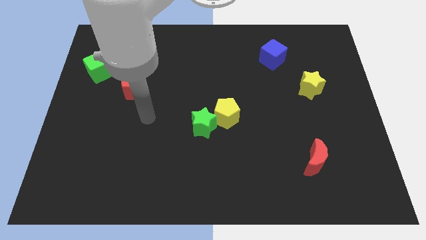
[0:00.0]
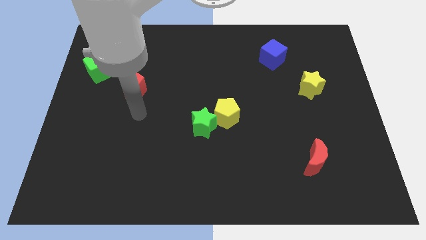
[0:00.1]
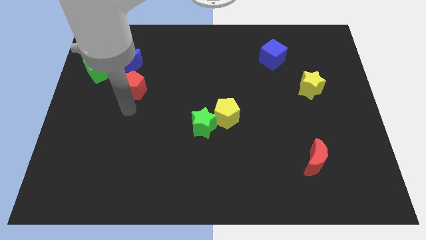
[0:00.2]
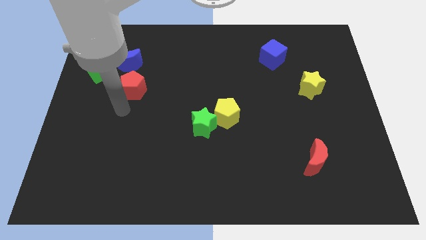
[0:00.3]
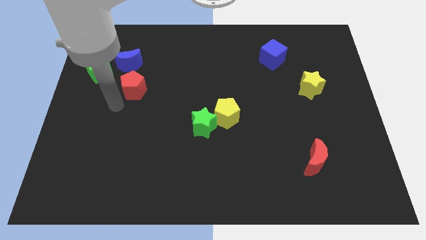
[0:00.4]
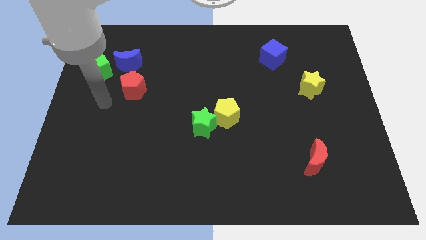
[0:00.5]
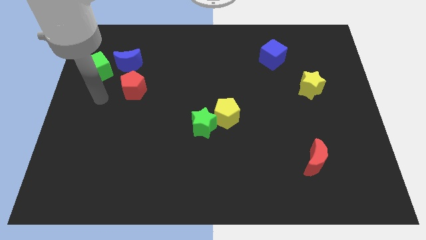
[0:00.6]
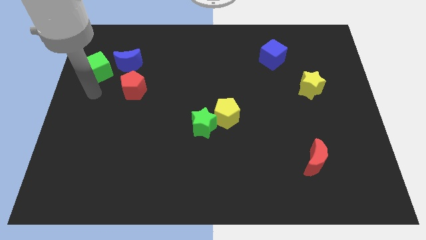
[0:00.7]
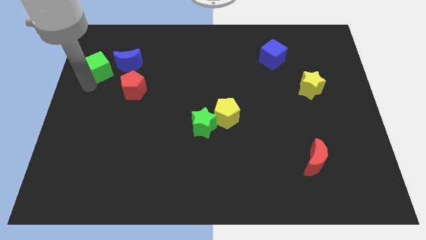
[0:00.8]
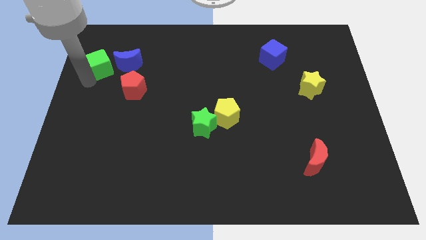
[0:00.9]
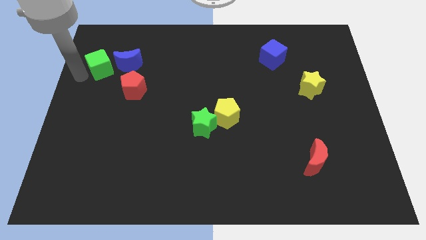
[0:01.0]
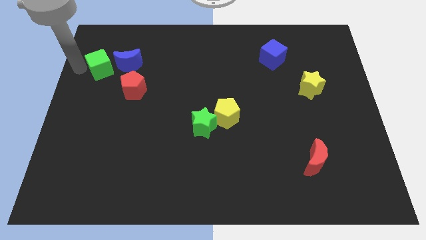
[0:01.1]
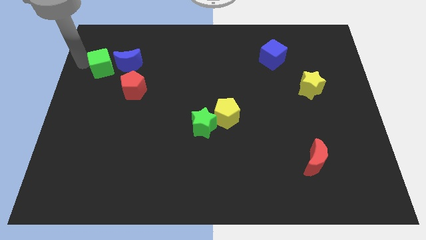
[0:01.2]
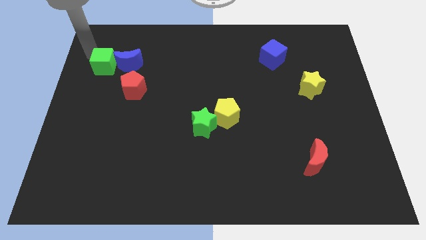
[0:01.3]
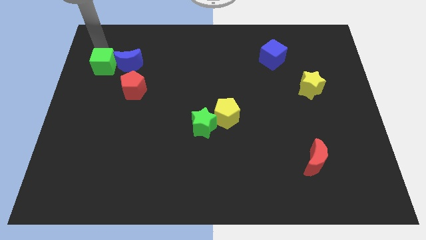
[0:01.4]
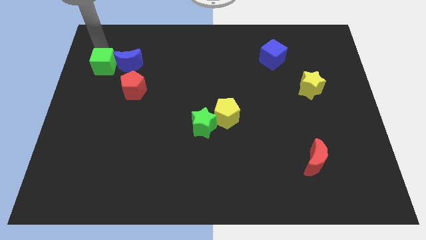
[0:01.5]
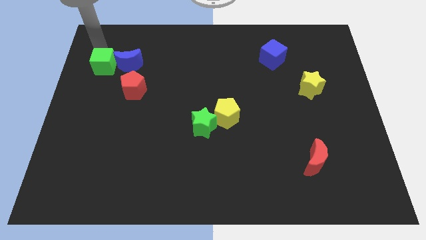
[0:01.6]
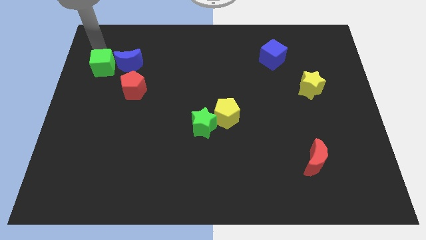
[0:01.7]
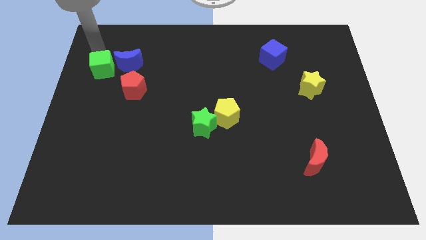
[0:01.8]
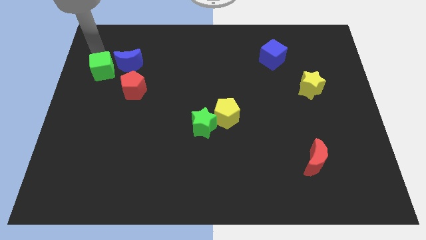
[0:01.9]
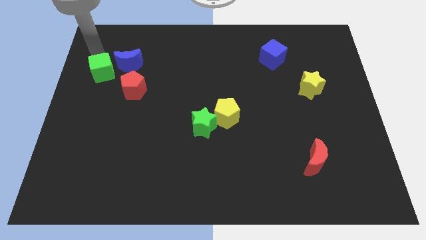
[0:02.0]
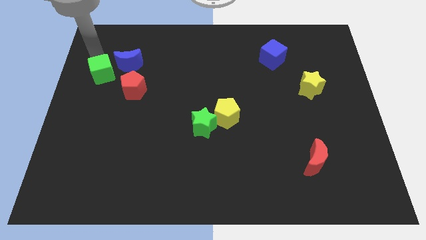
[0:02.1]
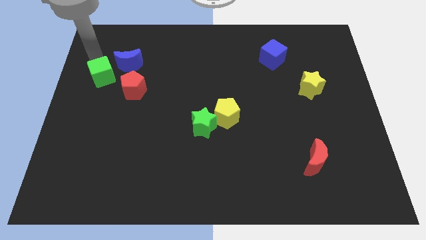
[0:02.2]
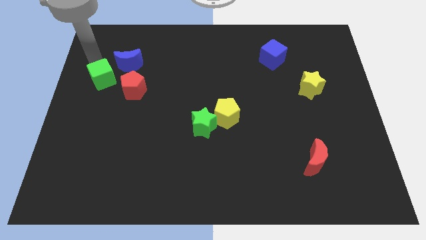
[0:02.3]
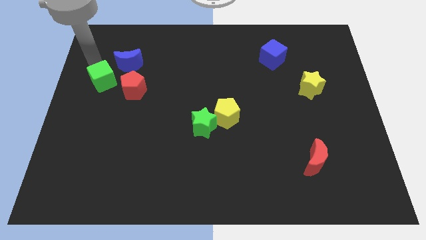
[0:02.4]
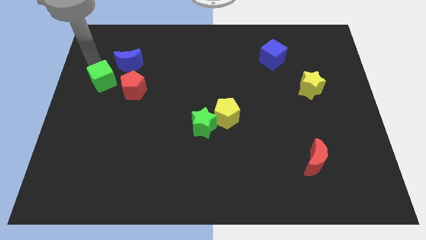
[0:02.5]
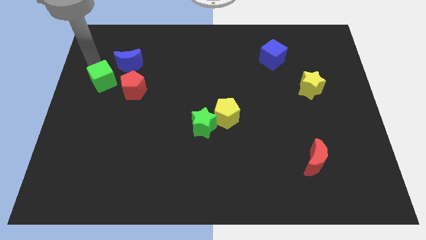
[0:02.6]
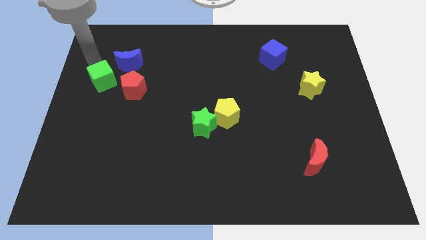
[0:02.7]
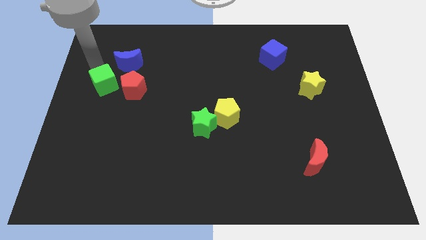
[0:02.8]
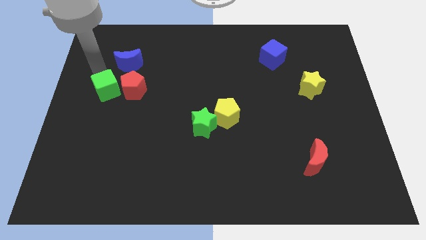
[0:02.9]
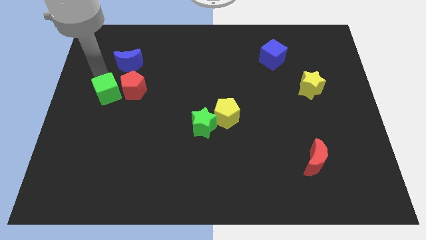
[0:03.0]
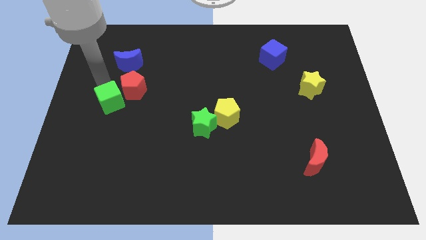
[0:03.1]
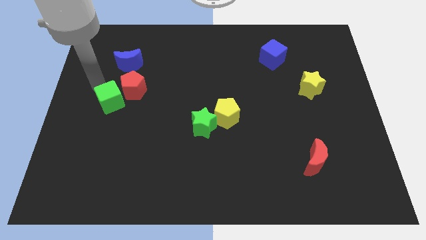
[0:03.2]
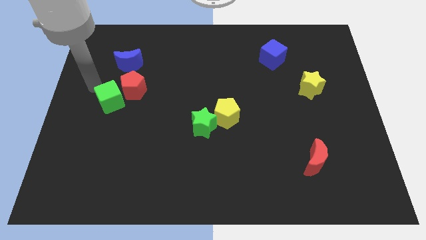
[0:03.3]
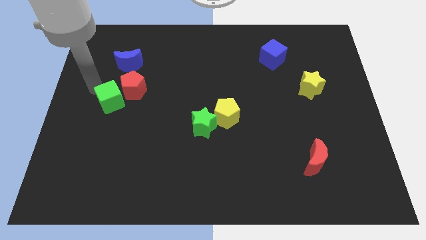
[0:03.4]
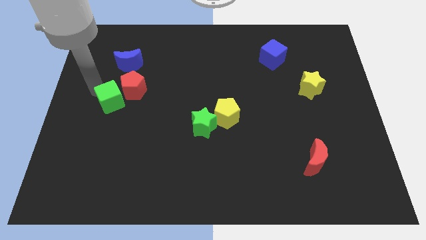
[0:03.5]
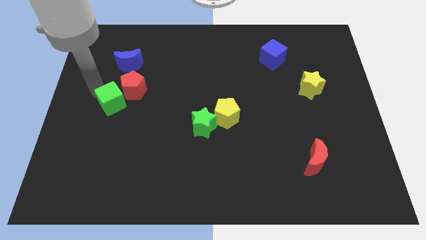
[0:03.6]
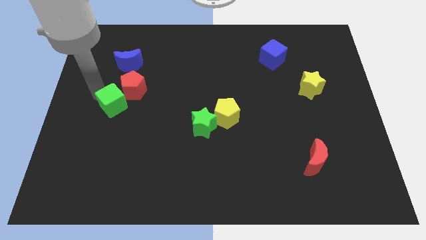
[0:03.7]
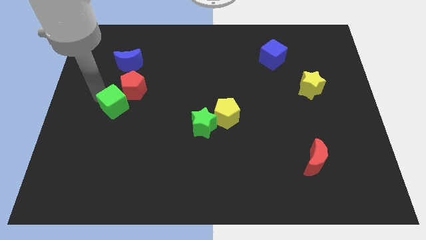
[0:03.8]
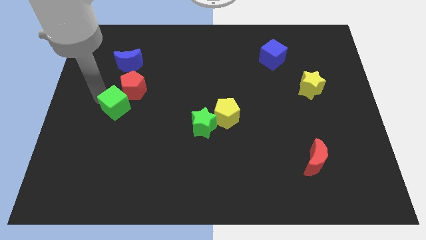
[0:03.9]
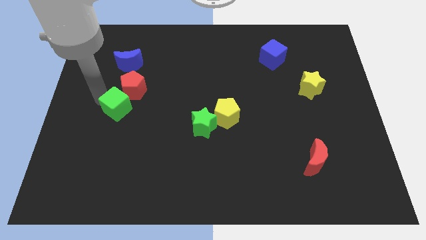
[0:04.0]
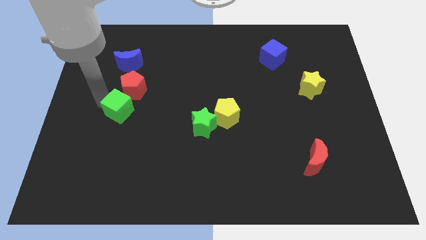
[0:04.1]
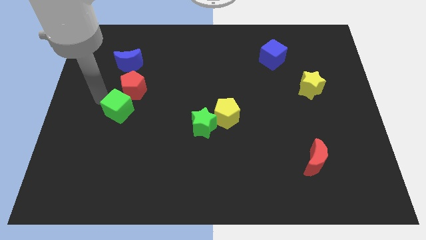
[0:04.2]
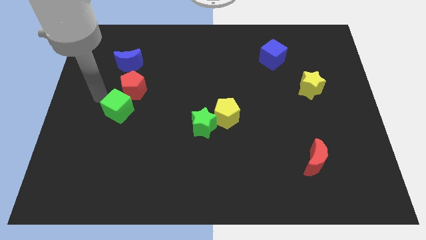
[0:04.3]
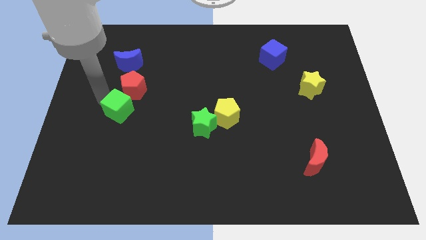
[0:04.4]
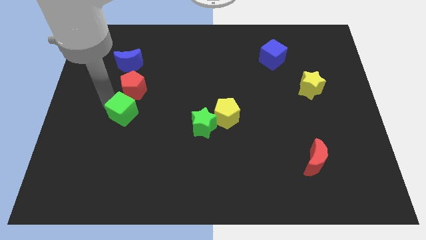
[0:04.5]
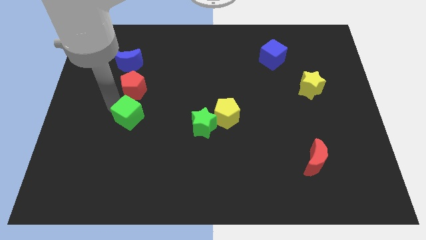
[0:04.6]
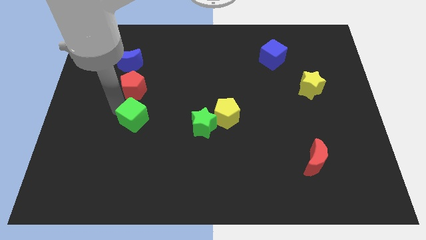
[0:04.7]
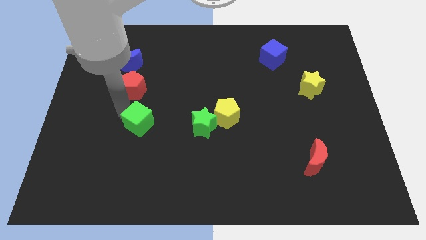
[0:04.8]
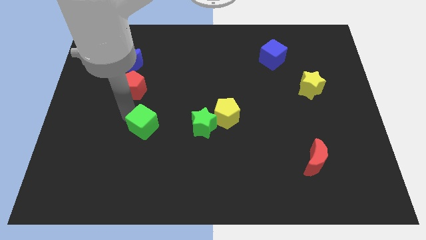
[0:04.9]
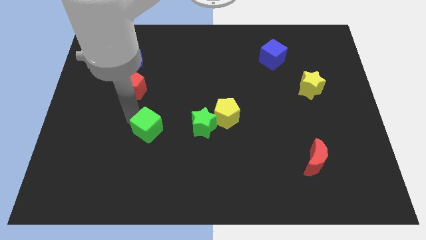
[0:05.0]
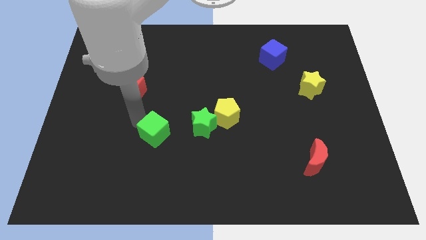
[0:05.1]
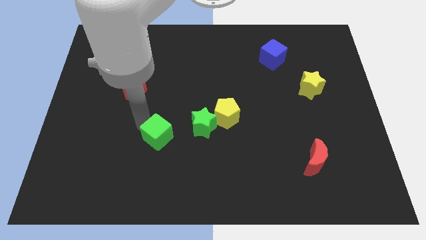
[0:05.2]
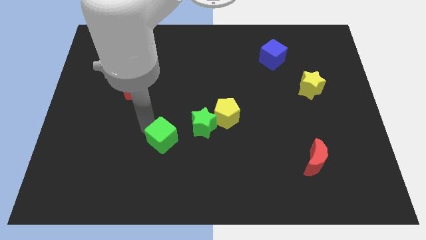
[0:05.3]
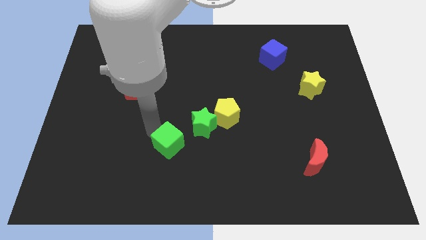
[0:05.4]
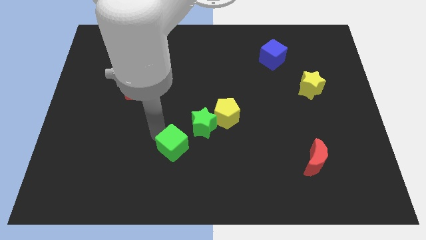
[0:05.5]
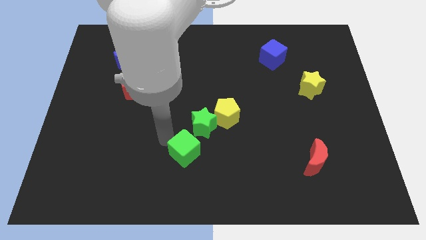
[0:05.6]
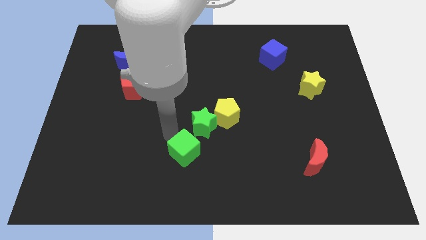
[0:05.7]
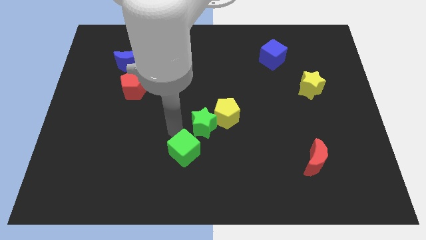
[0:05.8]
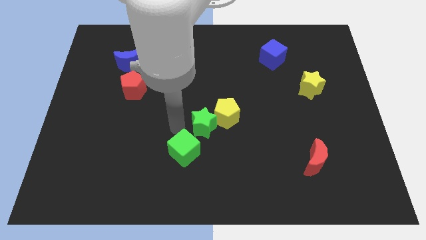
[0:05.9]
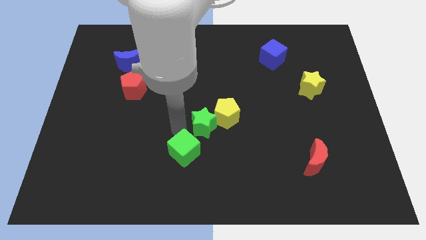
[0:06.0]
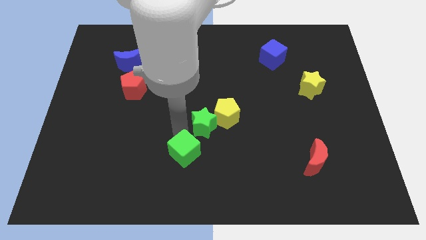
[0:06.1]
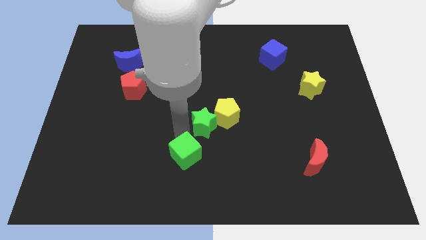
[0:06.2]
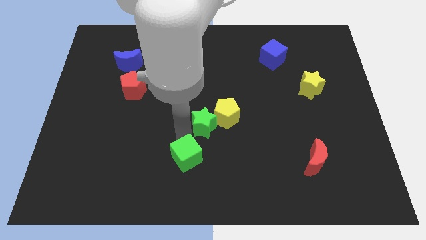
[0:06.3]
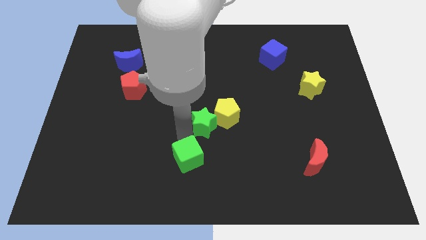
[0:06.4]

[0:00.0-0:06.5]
push the green cube to the bottom side

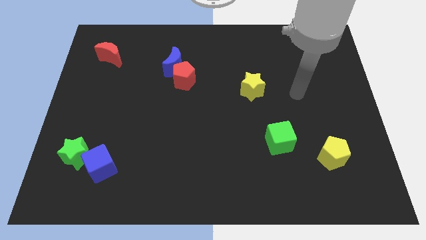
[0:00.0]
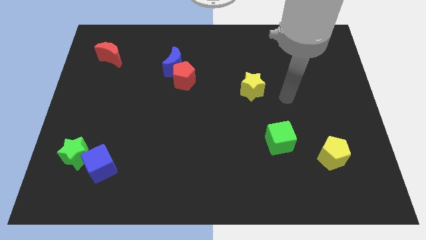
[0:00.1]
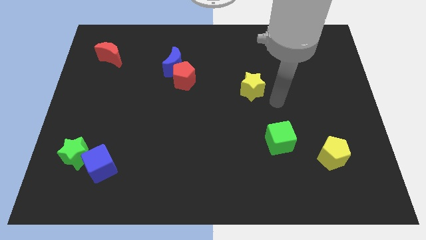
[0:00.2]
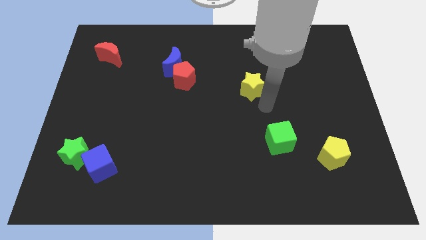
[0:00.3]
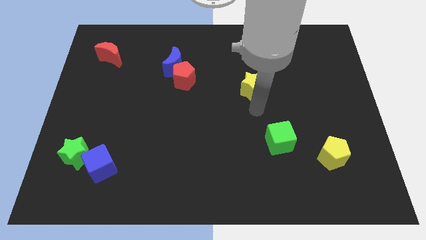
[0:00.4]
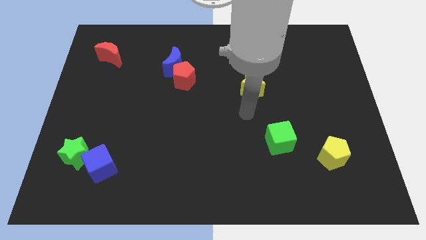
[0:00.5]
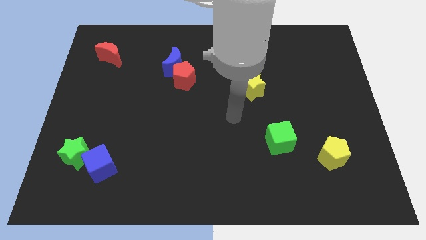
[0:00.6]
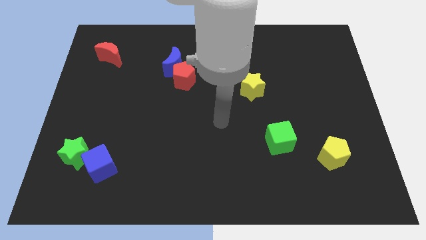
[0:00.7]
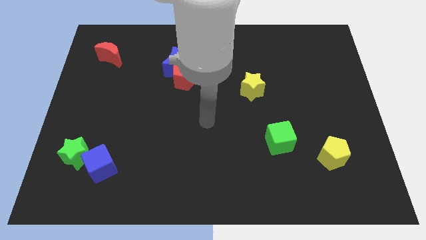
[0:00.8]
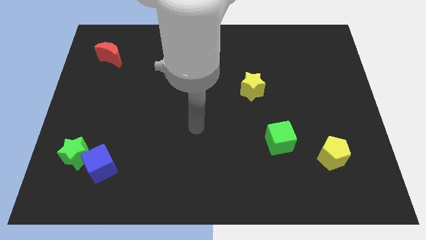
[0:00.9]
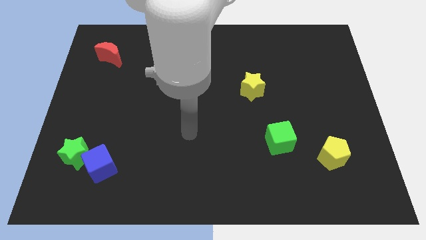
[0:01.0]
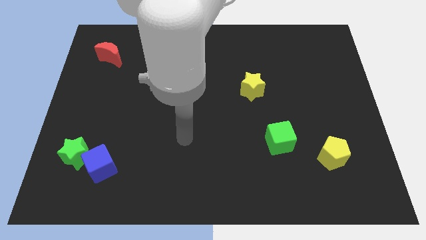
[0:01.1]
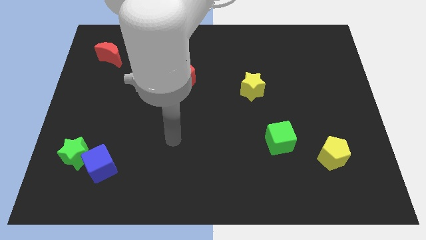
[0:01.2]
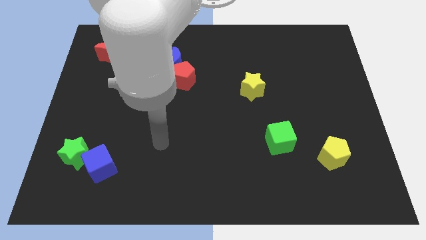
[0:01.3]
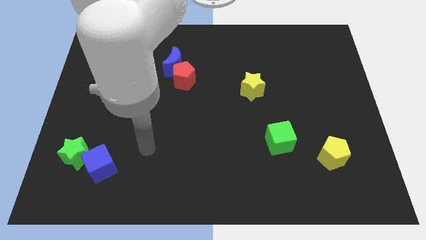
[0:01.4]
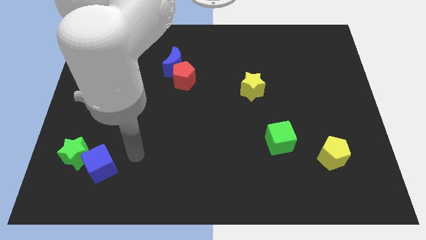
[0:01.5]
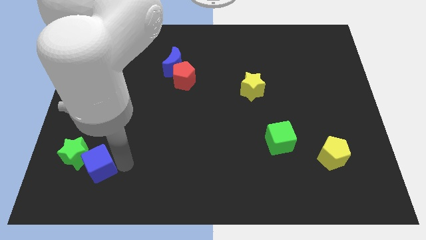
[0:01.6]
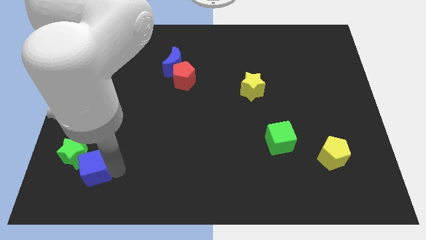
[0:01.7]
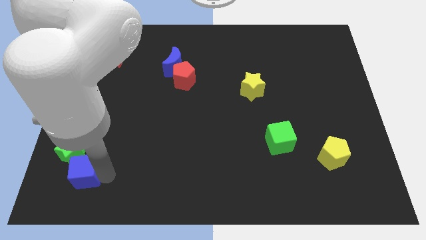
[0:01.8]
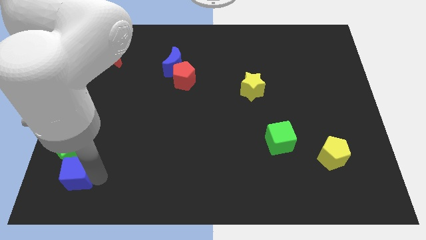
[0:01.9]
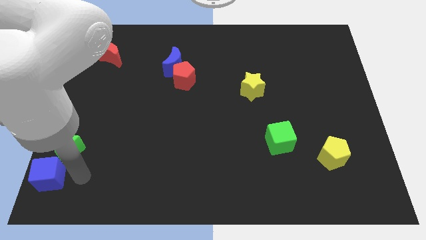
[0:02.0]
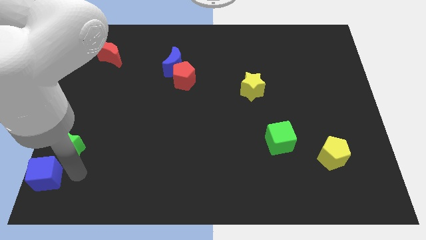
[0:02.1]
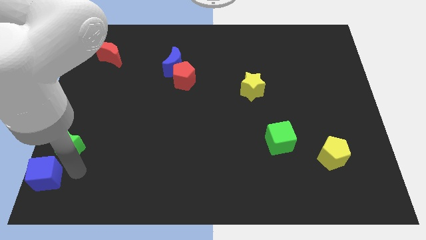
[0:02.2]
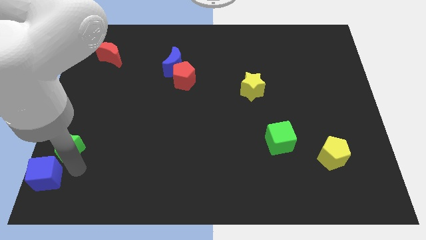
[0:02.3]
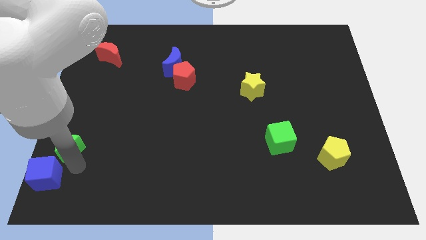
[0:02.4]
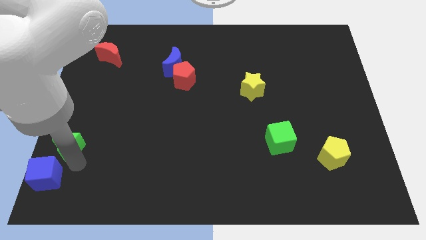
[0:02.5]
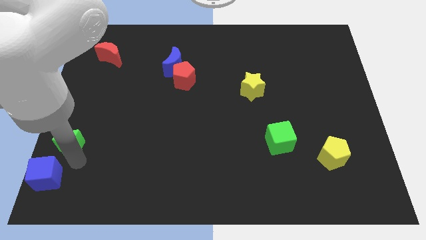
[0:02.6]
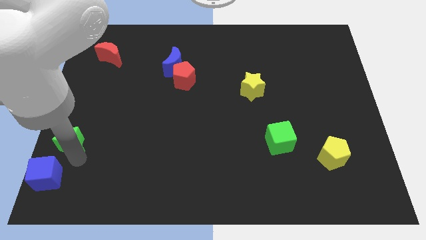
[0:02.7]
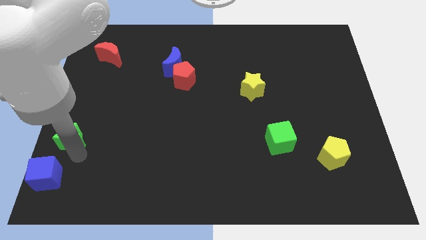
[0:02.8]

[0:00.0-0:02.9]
put the green star to the center left
